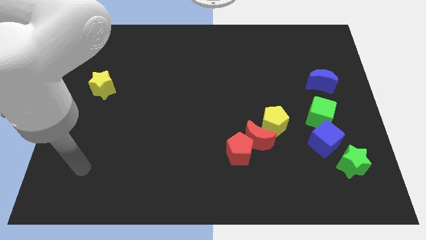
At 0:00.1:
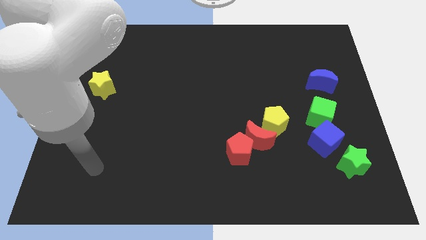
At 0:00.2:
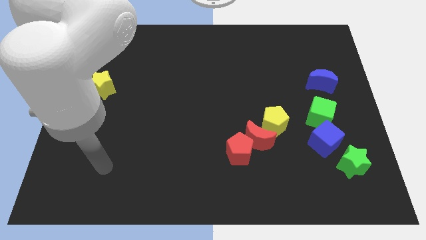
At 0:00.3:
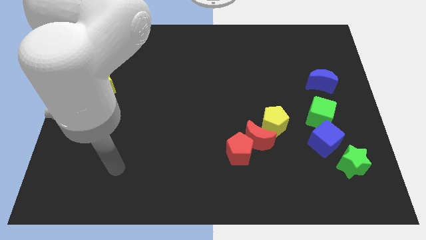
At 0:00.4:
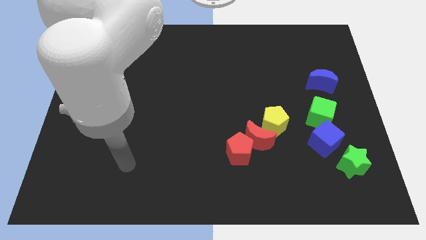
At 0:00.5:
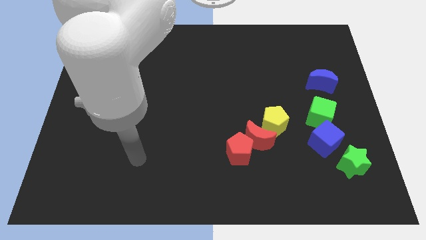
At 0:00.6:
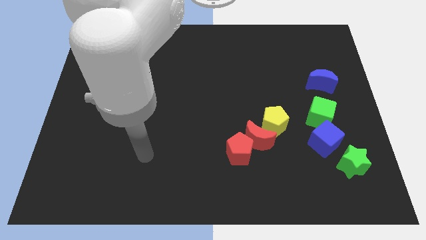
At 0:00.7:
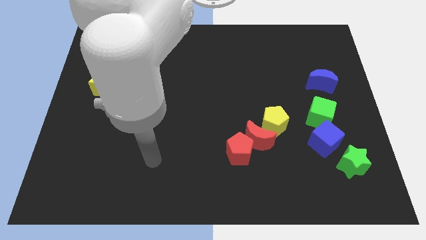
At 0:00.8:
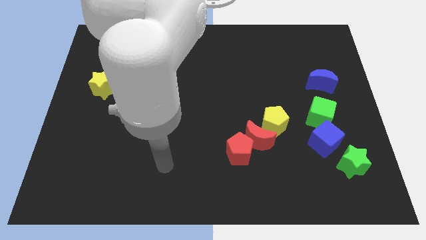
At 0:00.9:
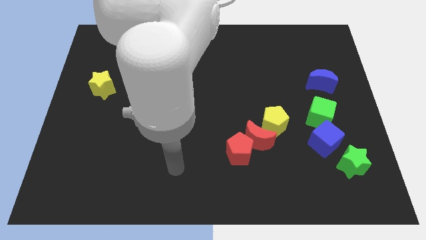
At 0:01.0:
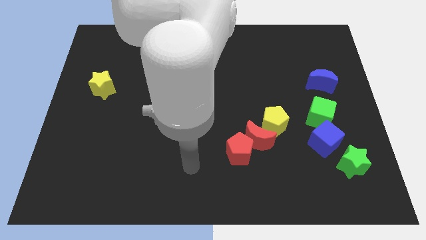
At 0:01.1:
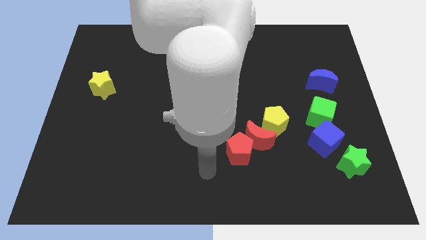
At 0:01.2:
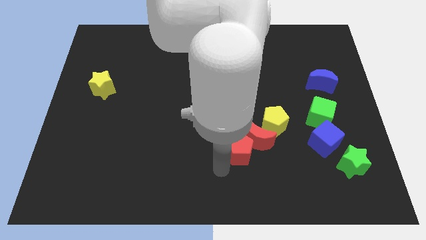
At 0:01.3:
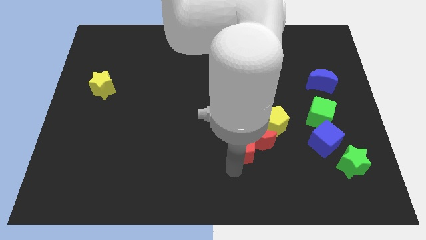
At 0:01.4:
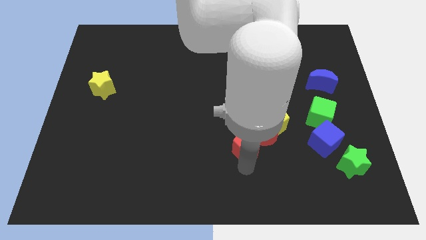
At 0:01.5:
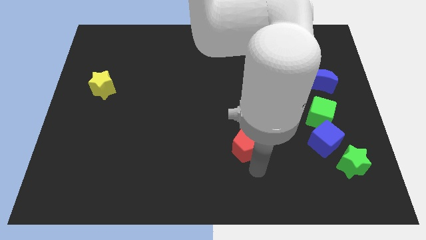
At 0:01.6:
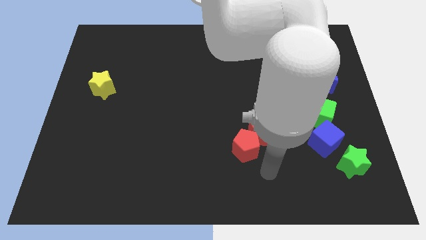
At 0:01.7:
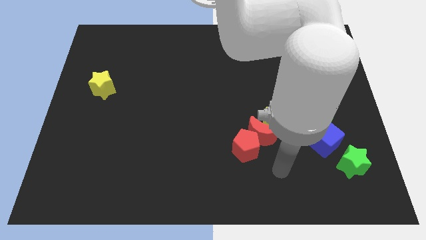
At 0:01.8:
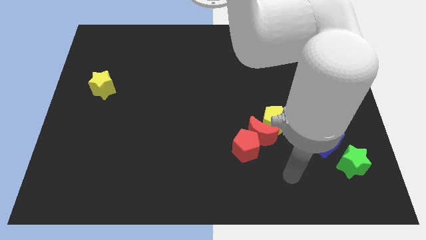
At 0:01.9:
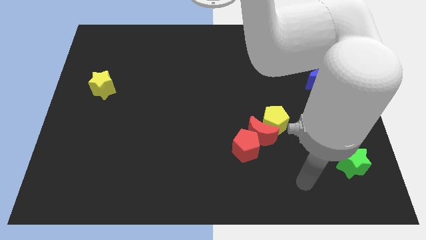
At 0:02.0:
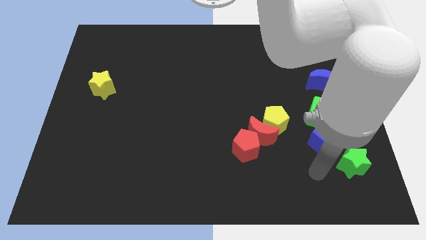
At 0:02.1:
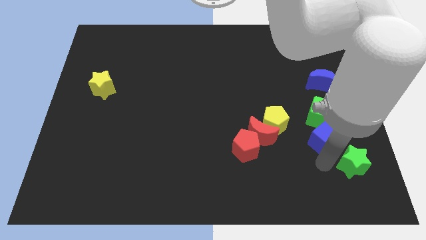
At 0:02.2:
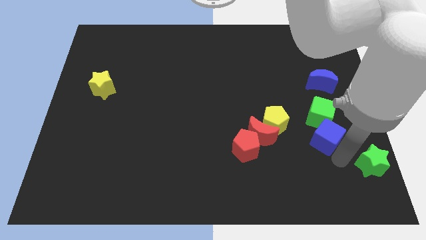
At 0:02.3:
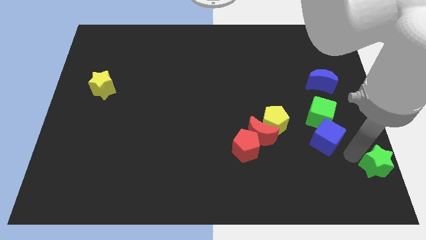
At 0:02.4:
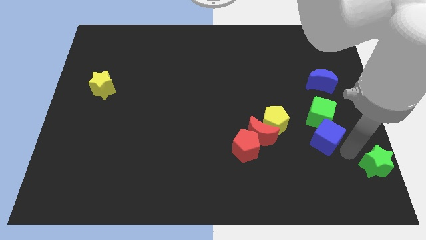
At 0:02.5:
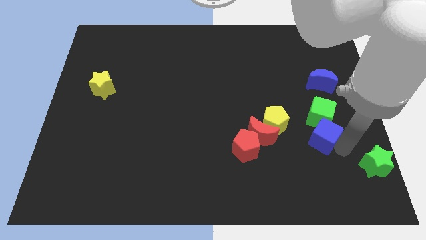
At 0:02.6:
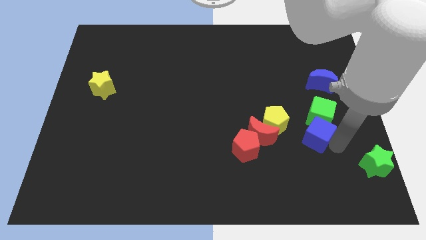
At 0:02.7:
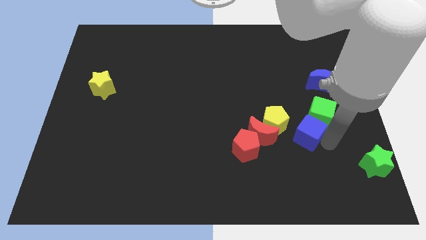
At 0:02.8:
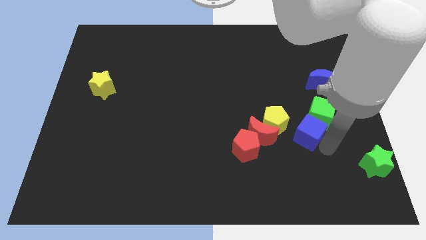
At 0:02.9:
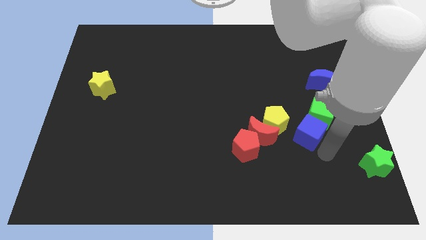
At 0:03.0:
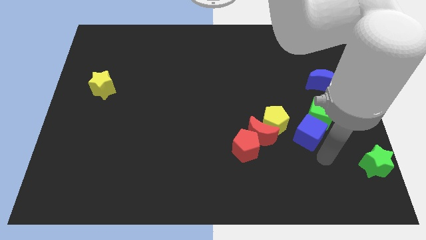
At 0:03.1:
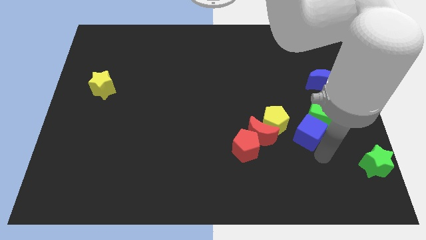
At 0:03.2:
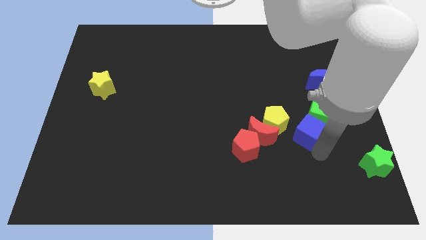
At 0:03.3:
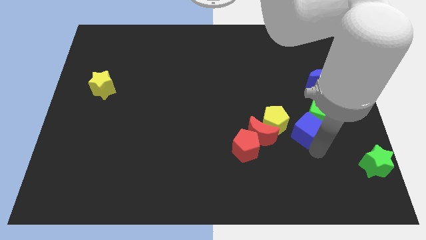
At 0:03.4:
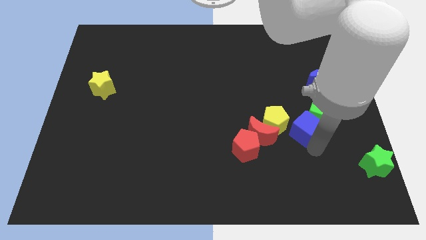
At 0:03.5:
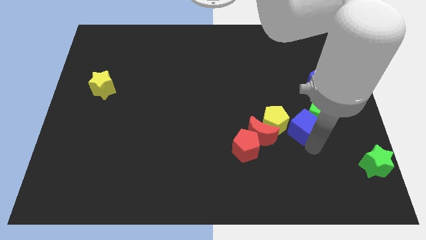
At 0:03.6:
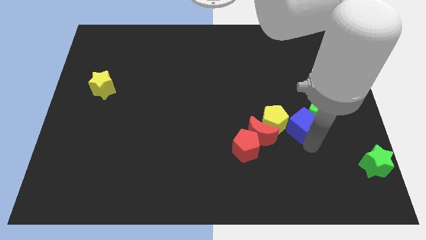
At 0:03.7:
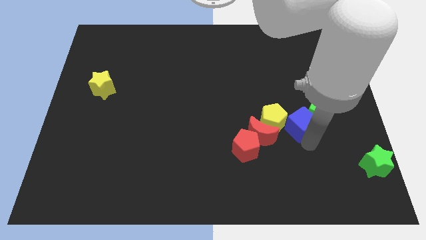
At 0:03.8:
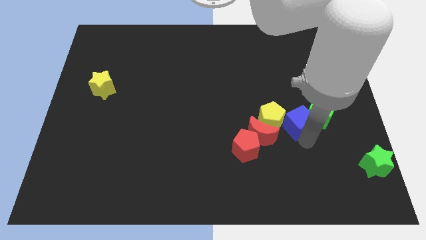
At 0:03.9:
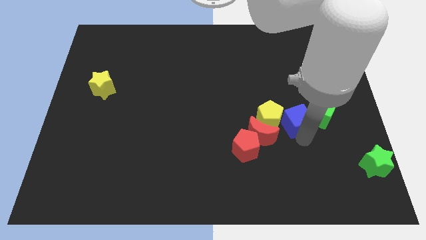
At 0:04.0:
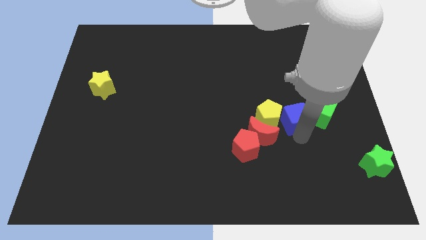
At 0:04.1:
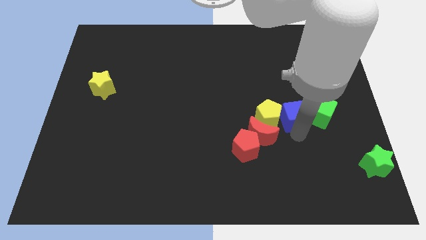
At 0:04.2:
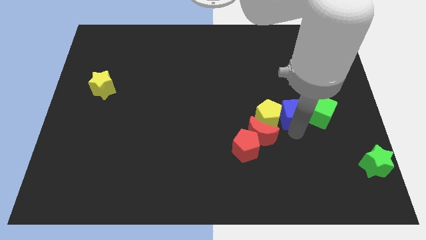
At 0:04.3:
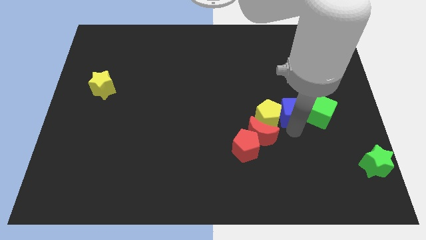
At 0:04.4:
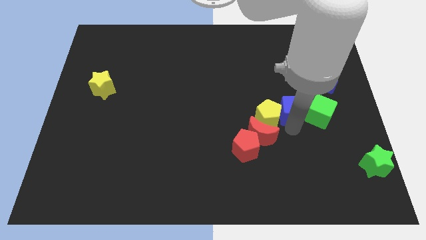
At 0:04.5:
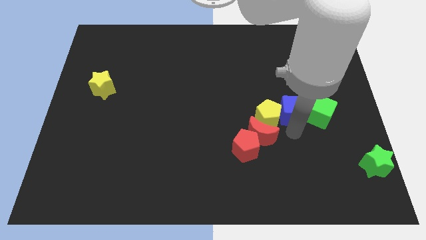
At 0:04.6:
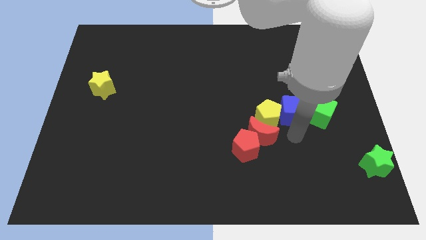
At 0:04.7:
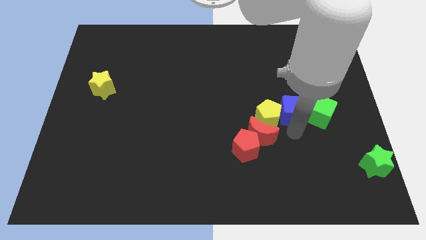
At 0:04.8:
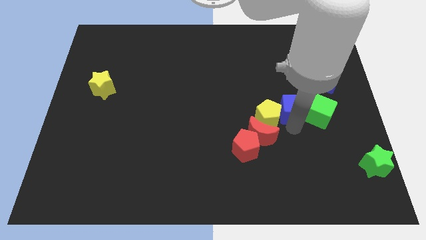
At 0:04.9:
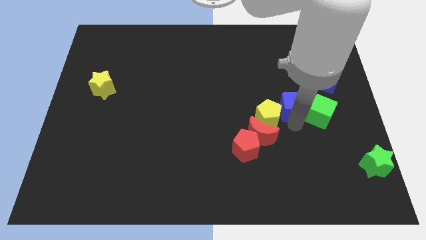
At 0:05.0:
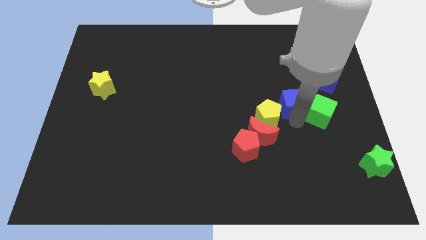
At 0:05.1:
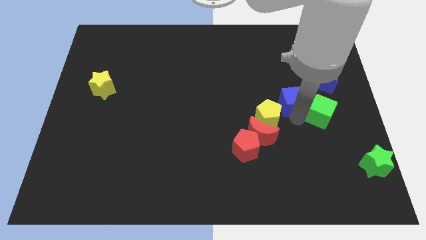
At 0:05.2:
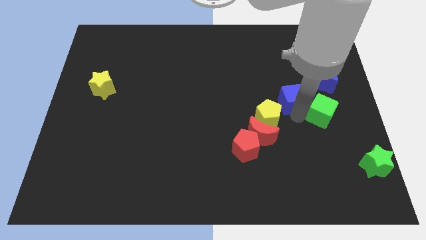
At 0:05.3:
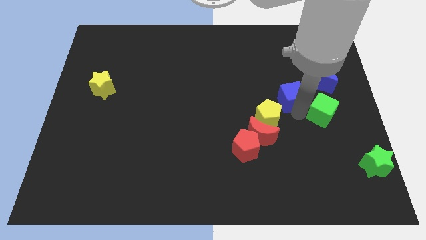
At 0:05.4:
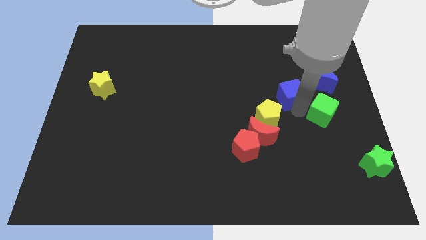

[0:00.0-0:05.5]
move the blue cube to the left of the blue moon

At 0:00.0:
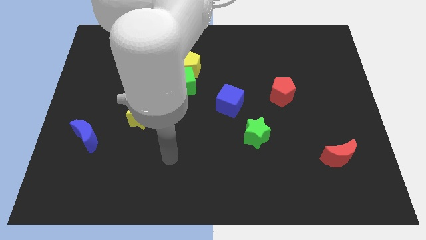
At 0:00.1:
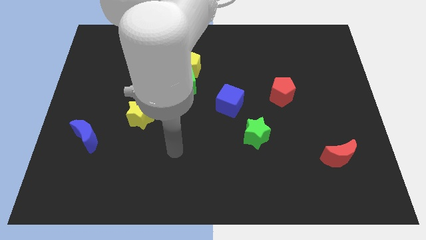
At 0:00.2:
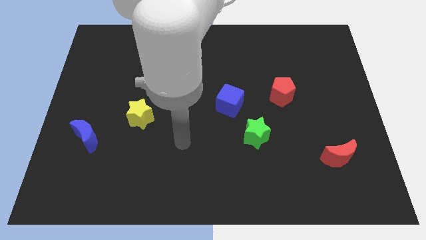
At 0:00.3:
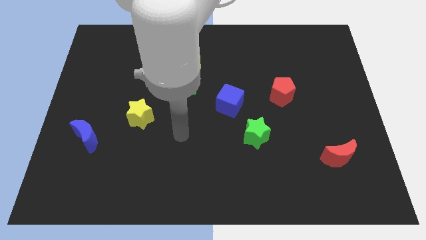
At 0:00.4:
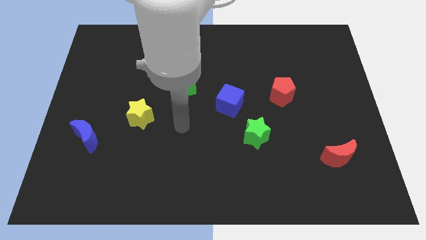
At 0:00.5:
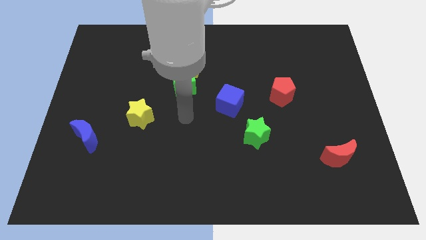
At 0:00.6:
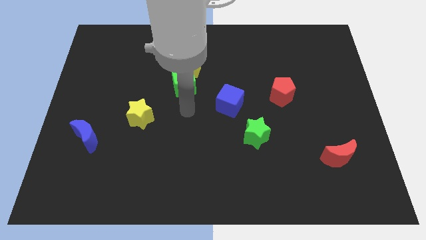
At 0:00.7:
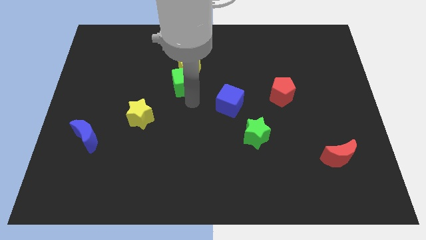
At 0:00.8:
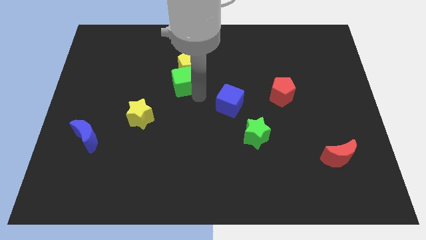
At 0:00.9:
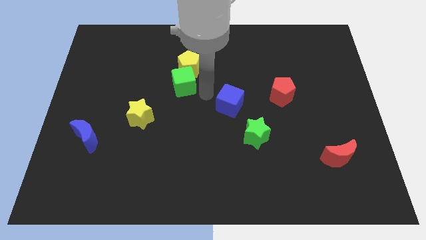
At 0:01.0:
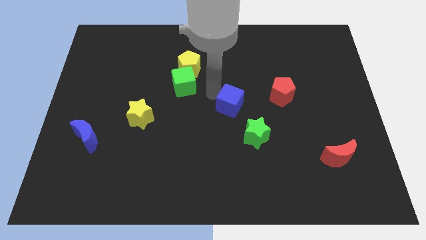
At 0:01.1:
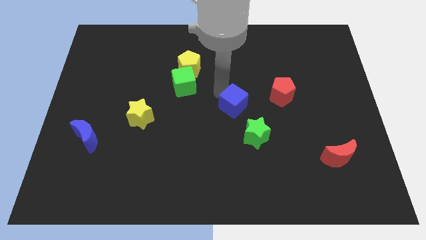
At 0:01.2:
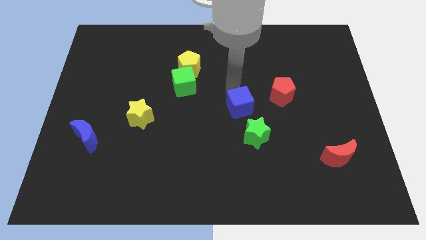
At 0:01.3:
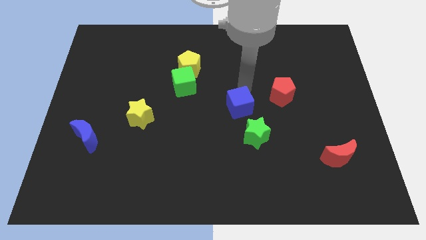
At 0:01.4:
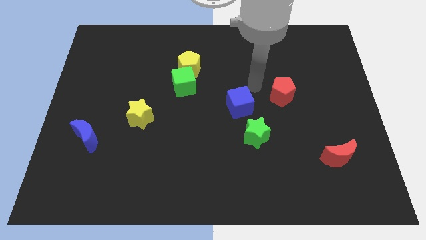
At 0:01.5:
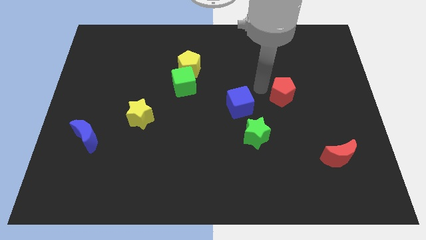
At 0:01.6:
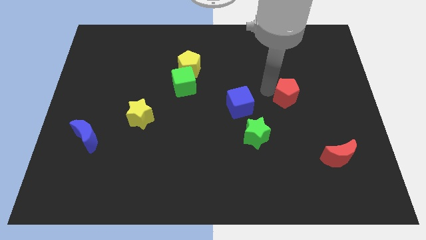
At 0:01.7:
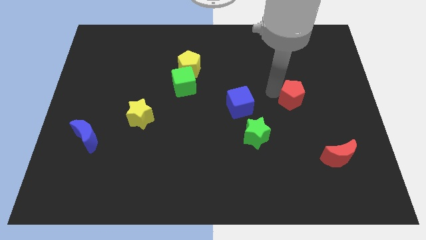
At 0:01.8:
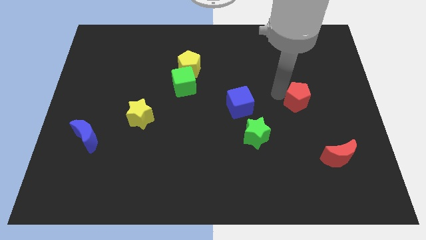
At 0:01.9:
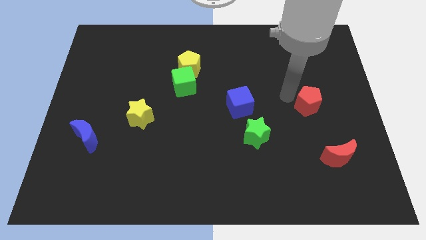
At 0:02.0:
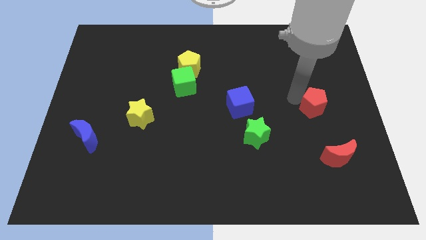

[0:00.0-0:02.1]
move the red pentagon to the top of the red moon
